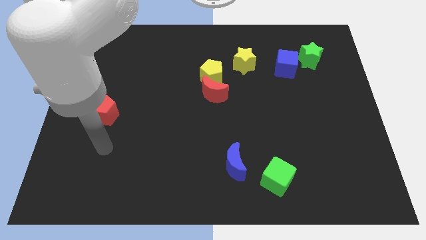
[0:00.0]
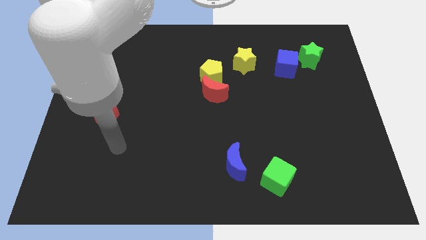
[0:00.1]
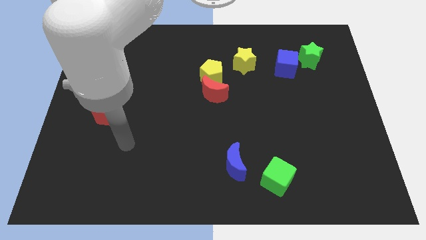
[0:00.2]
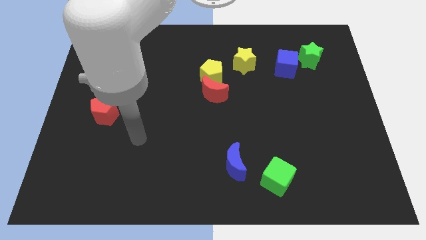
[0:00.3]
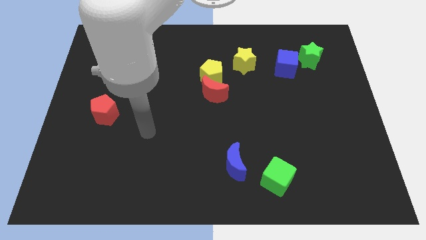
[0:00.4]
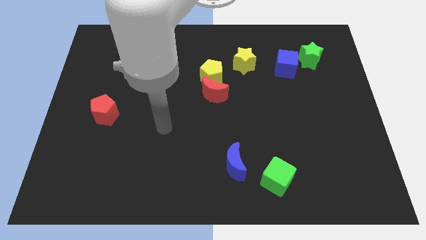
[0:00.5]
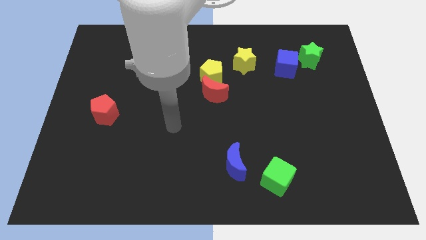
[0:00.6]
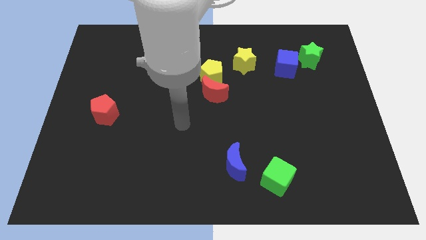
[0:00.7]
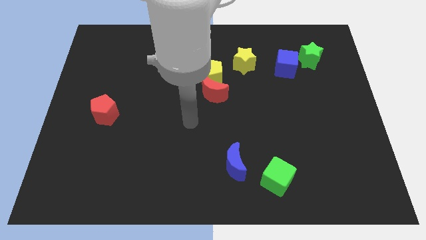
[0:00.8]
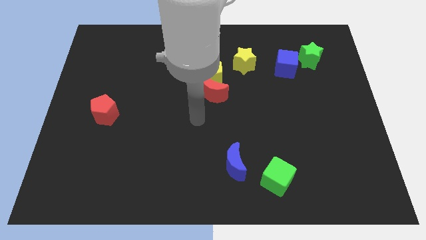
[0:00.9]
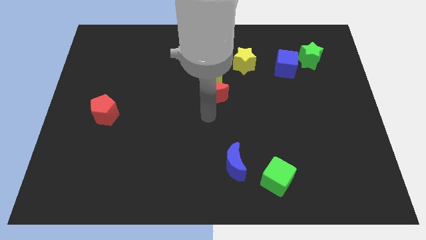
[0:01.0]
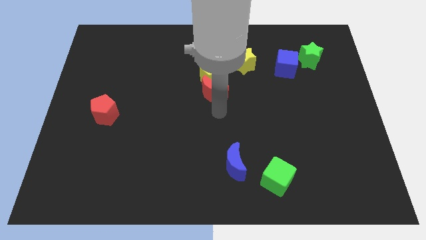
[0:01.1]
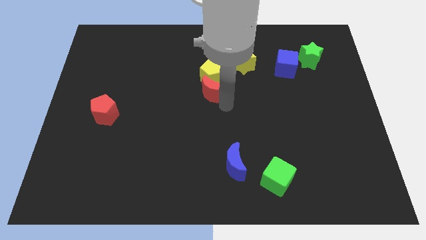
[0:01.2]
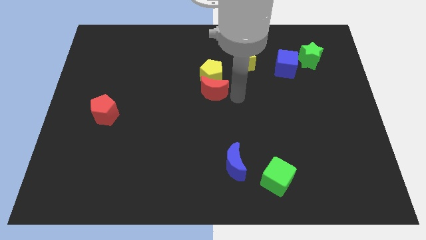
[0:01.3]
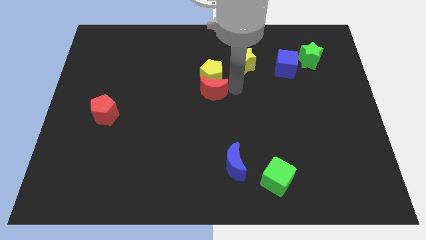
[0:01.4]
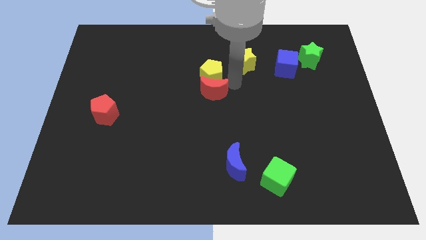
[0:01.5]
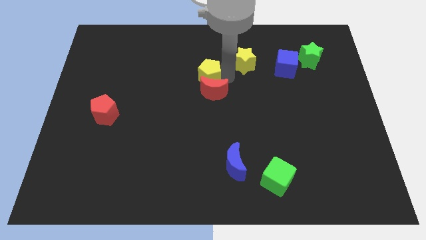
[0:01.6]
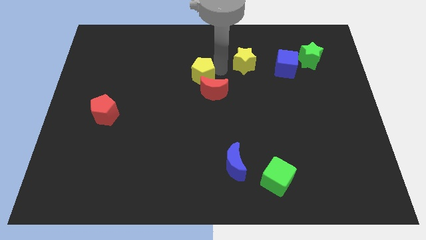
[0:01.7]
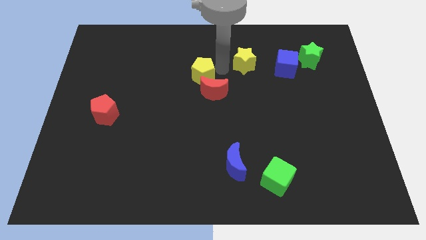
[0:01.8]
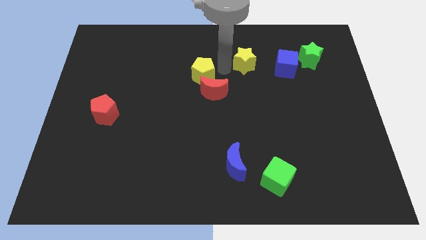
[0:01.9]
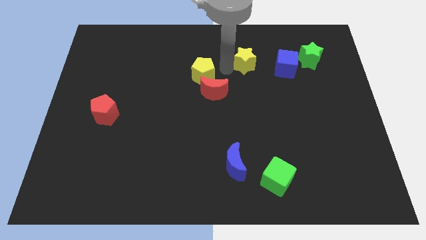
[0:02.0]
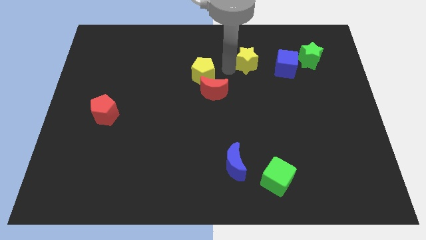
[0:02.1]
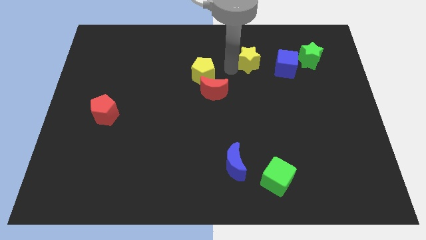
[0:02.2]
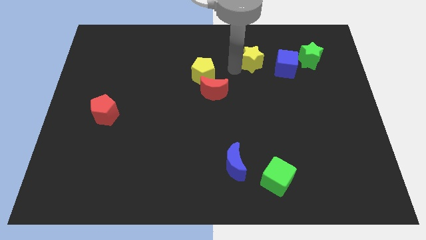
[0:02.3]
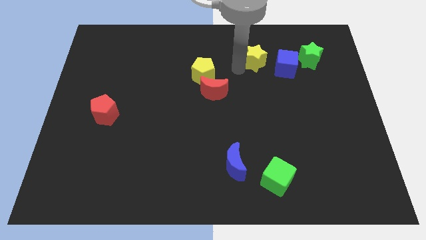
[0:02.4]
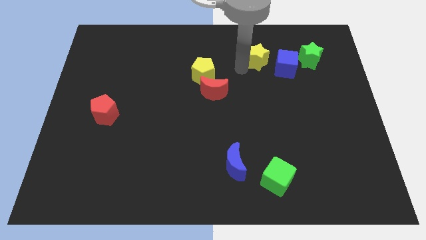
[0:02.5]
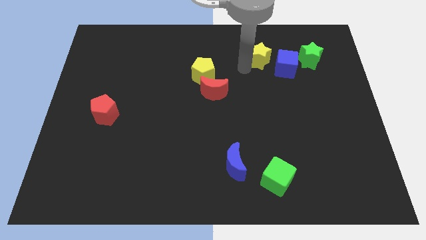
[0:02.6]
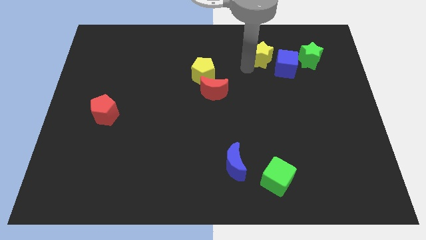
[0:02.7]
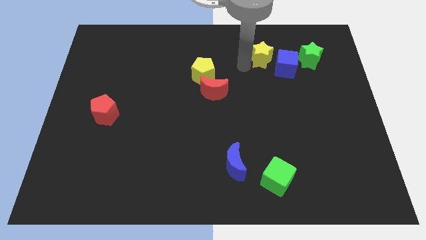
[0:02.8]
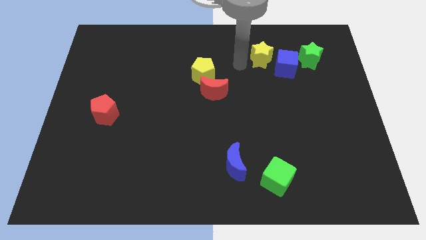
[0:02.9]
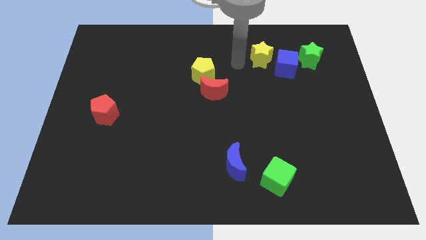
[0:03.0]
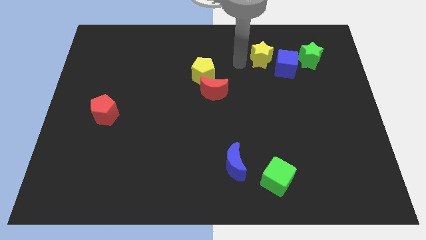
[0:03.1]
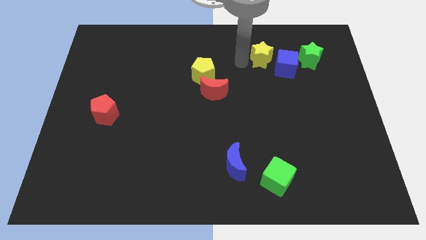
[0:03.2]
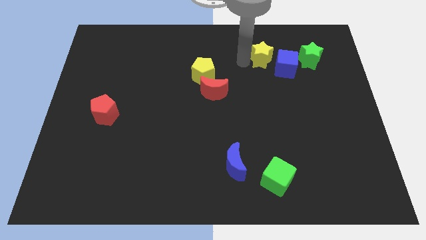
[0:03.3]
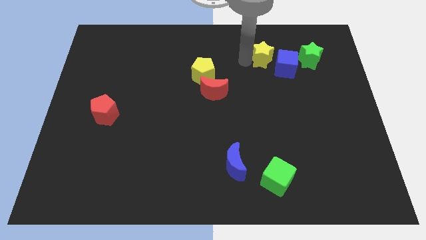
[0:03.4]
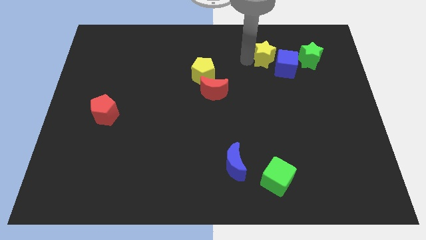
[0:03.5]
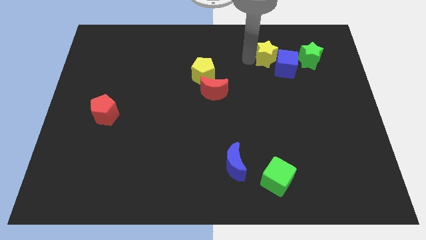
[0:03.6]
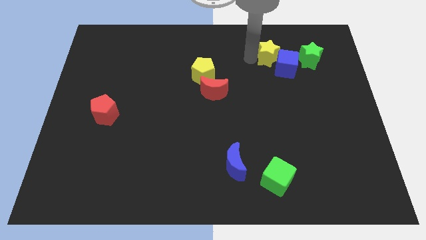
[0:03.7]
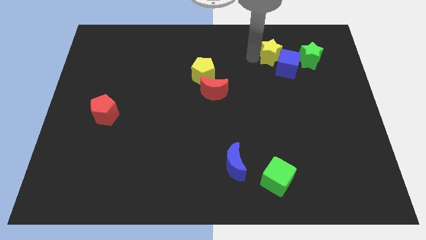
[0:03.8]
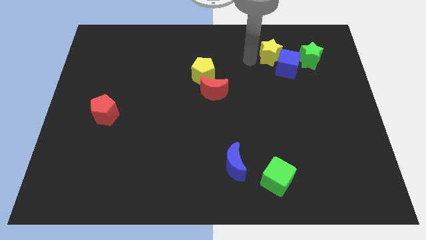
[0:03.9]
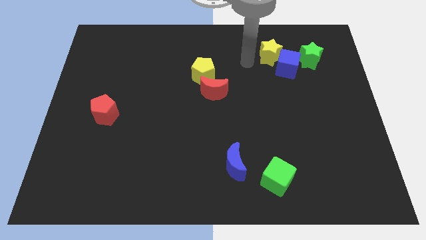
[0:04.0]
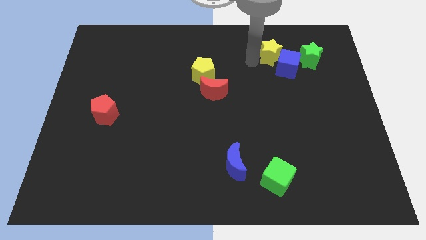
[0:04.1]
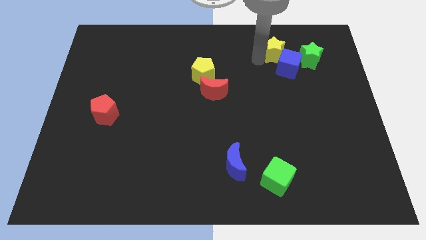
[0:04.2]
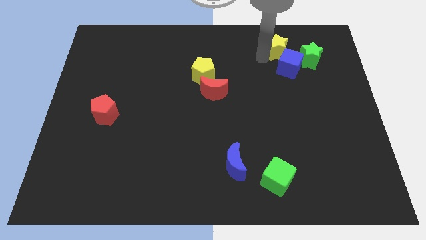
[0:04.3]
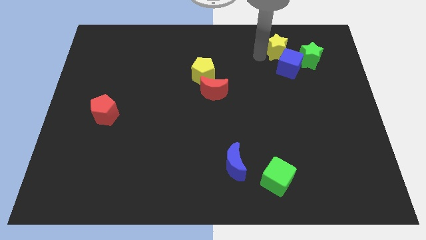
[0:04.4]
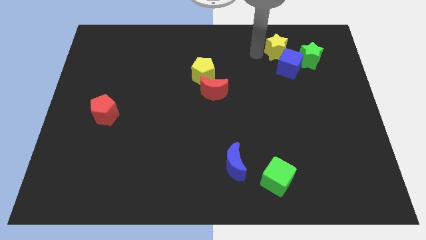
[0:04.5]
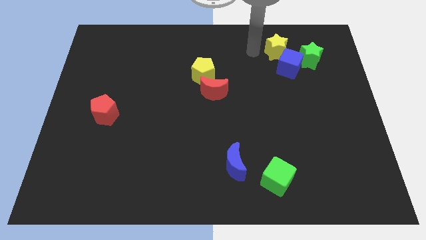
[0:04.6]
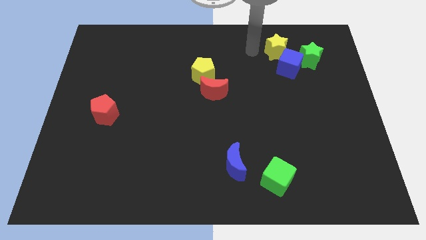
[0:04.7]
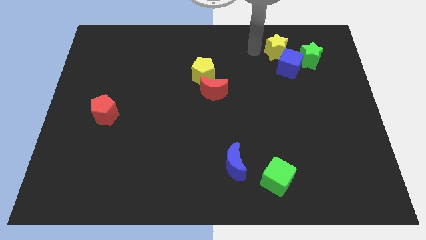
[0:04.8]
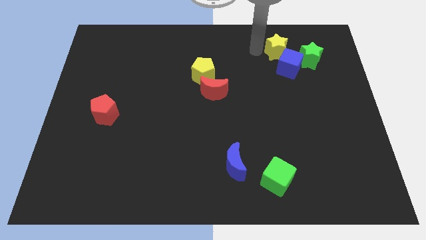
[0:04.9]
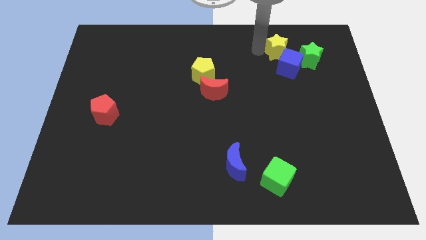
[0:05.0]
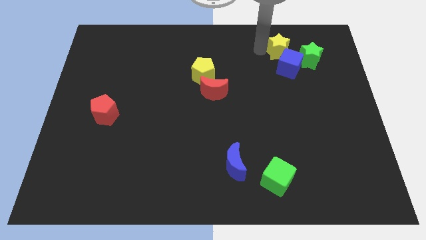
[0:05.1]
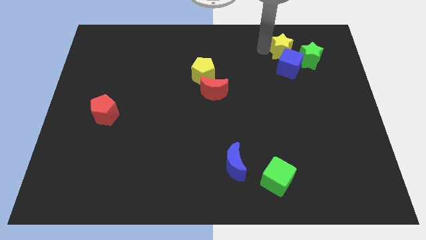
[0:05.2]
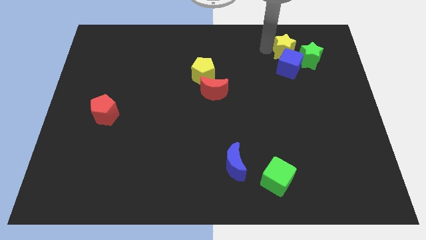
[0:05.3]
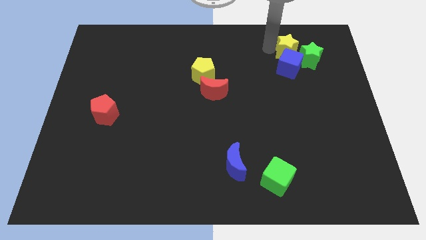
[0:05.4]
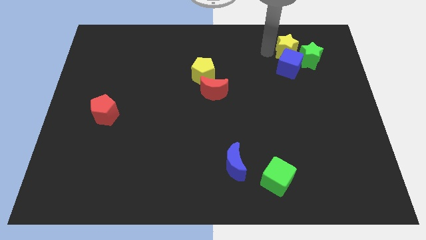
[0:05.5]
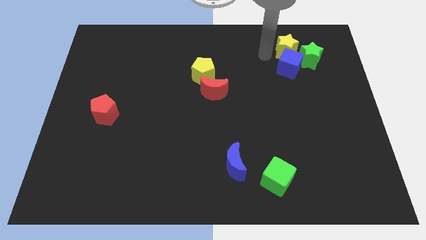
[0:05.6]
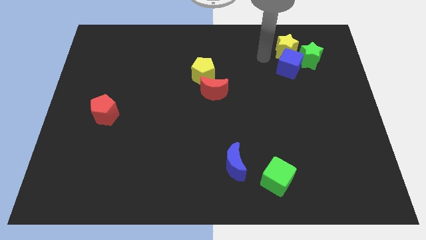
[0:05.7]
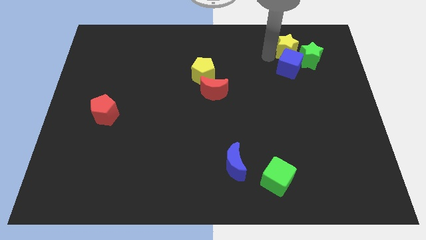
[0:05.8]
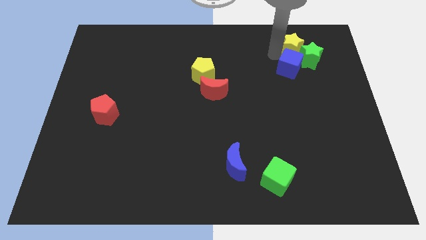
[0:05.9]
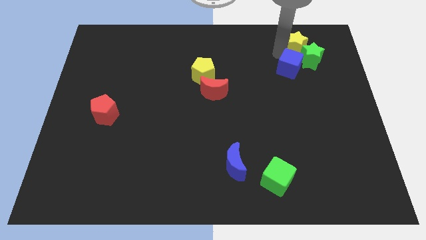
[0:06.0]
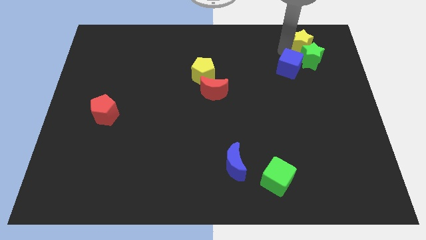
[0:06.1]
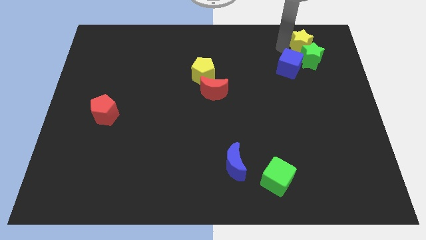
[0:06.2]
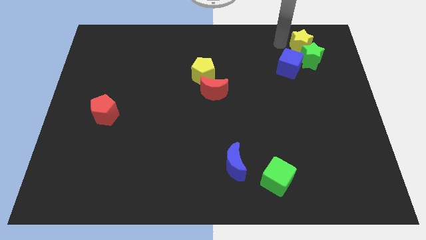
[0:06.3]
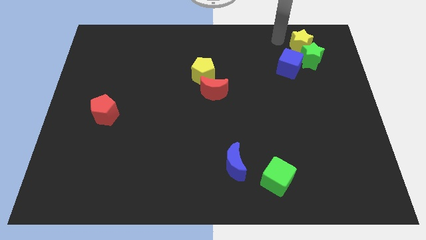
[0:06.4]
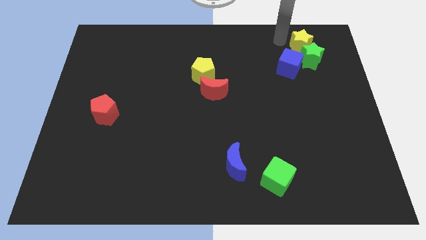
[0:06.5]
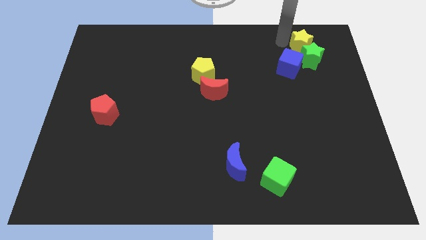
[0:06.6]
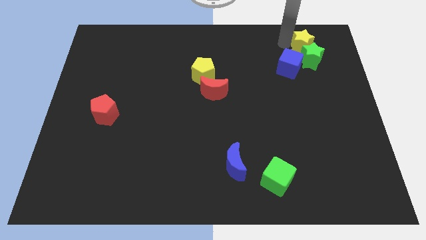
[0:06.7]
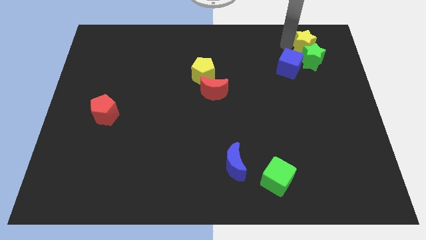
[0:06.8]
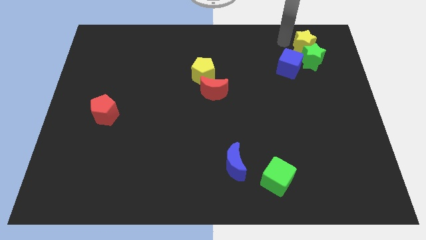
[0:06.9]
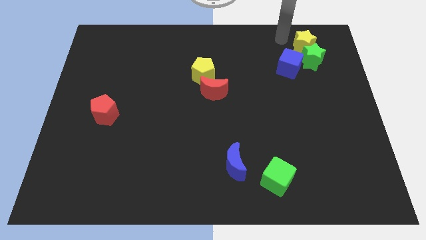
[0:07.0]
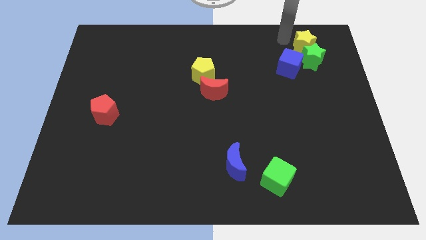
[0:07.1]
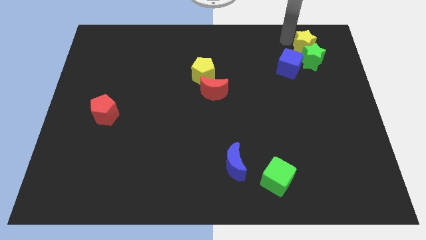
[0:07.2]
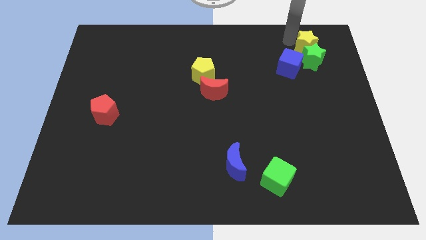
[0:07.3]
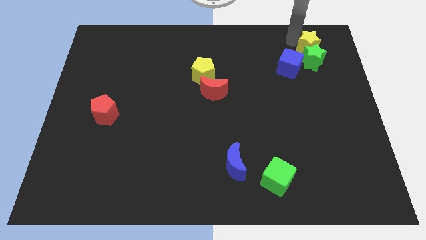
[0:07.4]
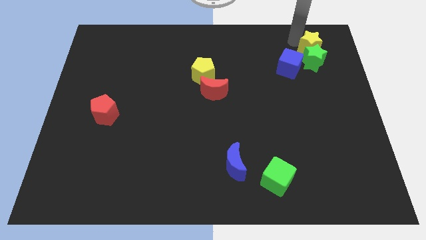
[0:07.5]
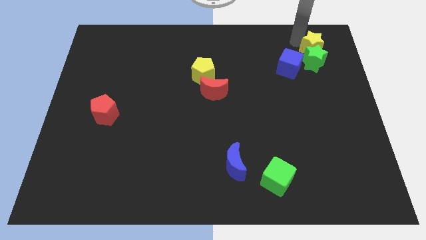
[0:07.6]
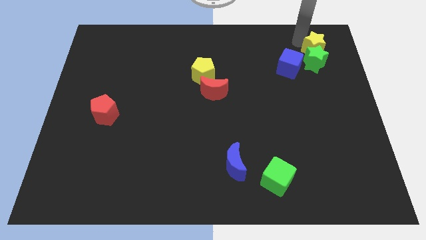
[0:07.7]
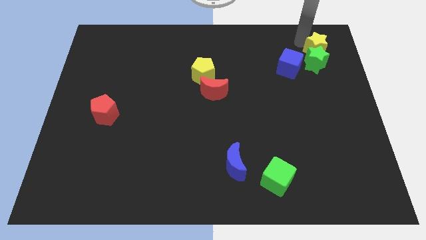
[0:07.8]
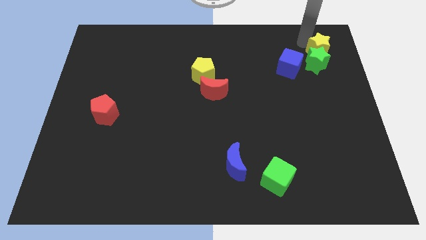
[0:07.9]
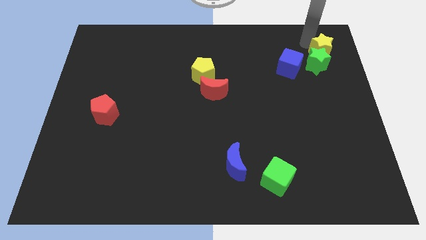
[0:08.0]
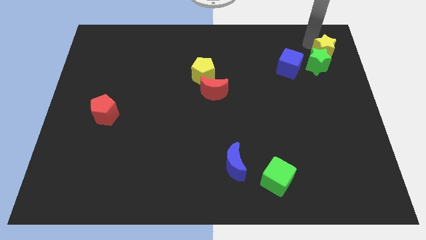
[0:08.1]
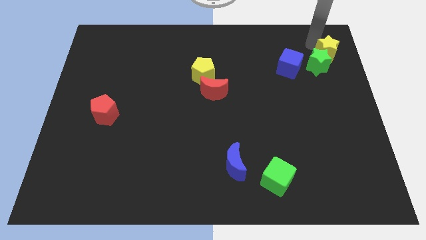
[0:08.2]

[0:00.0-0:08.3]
put the yellow star just right of the blue cube
